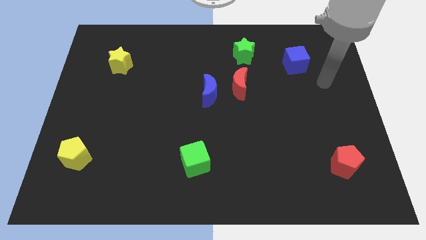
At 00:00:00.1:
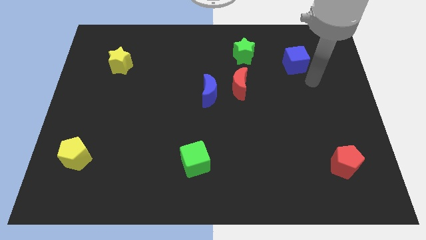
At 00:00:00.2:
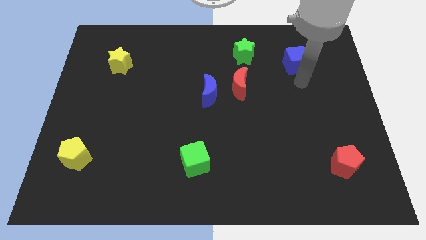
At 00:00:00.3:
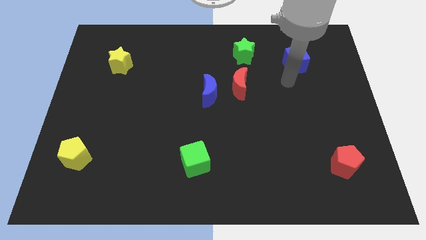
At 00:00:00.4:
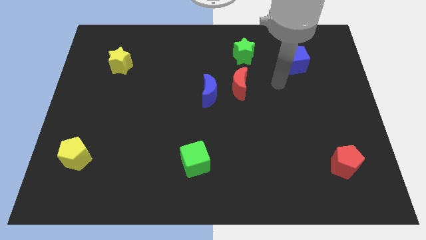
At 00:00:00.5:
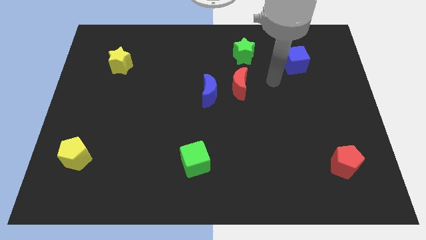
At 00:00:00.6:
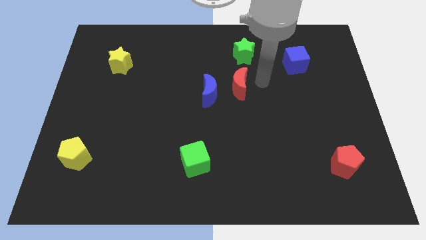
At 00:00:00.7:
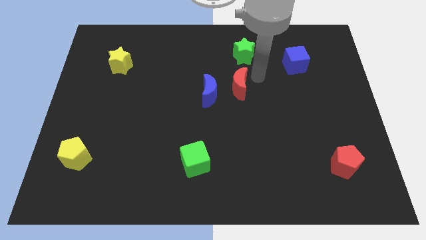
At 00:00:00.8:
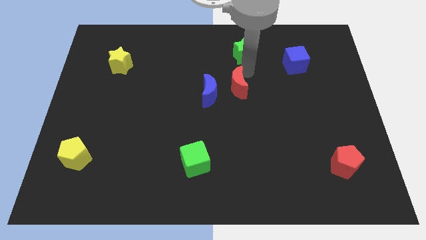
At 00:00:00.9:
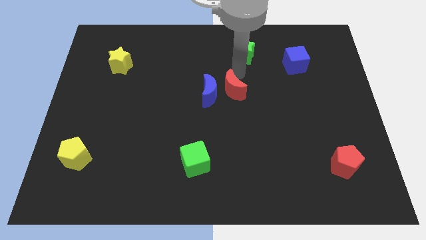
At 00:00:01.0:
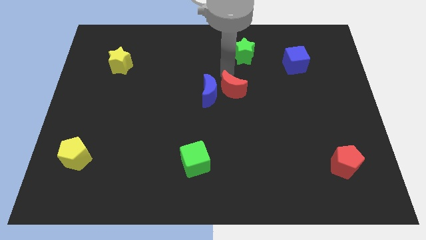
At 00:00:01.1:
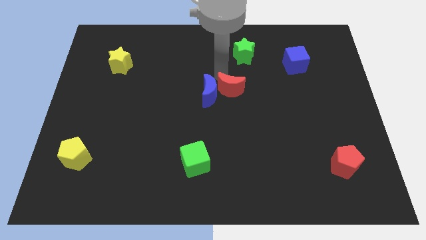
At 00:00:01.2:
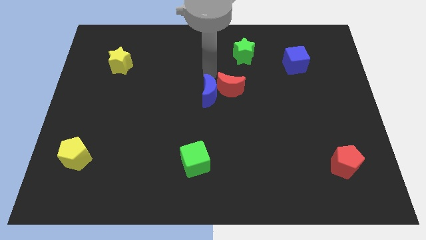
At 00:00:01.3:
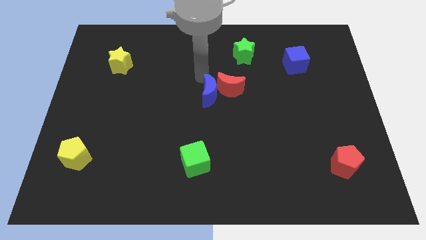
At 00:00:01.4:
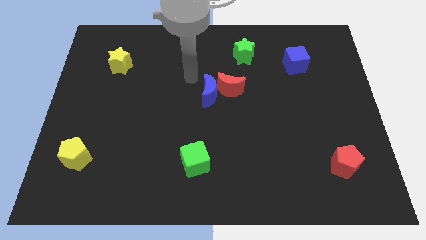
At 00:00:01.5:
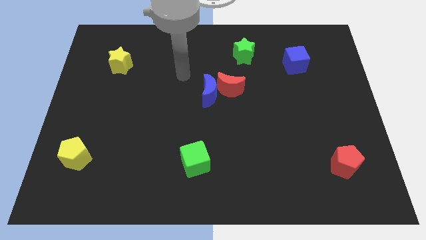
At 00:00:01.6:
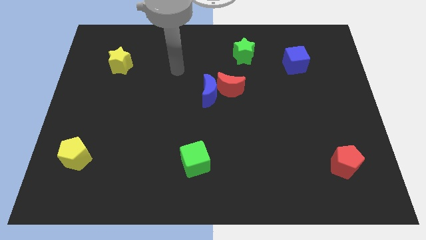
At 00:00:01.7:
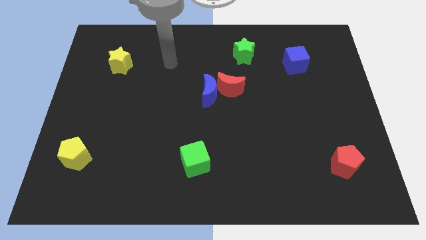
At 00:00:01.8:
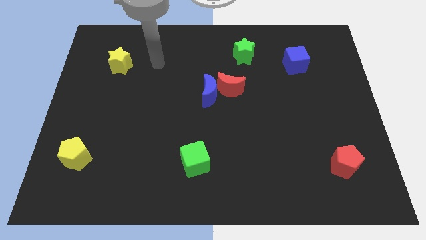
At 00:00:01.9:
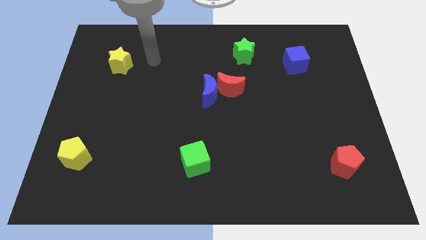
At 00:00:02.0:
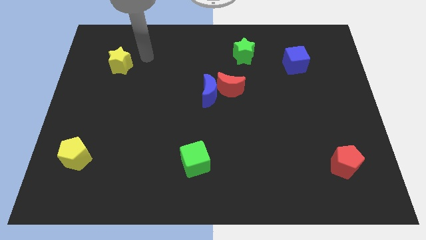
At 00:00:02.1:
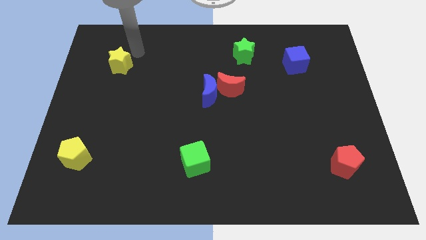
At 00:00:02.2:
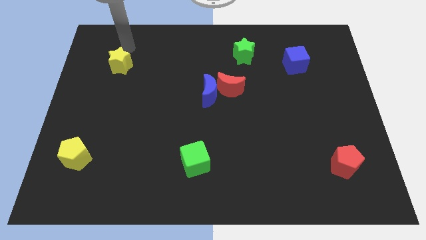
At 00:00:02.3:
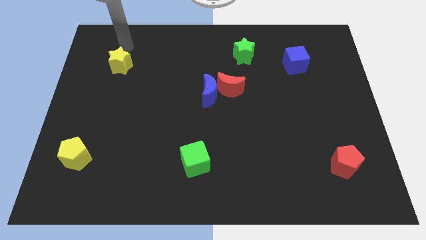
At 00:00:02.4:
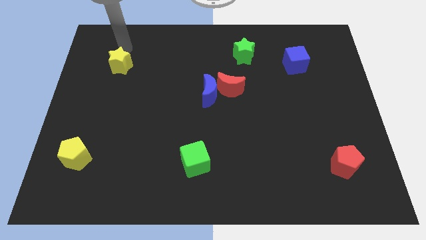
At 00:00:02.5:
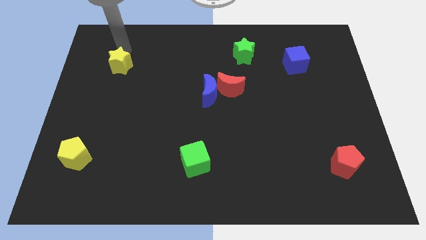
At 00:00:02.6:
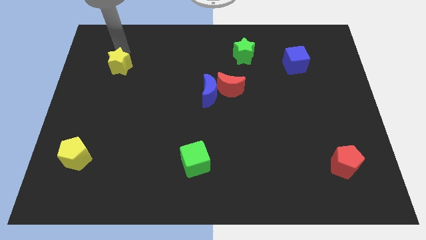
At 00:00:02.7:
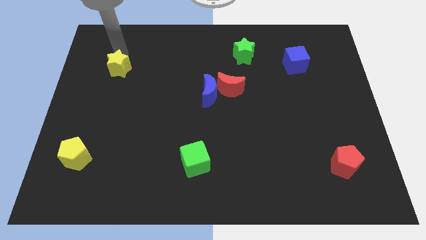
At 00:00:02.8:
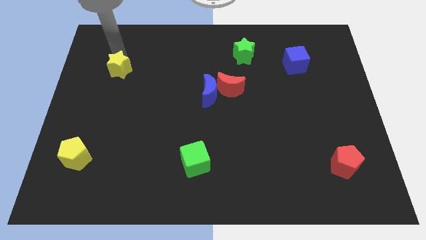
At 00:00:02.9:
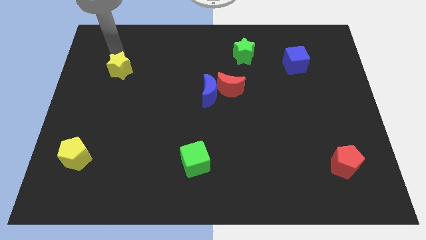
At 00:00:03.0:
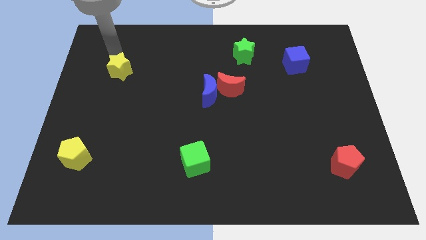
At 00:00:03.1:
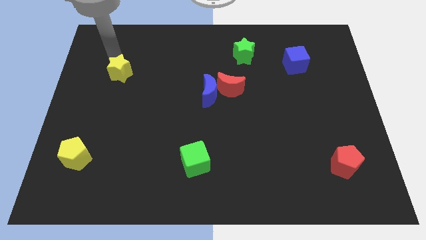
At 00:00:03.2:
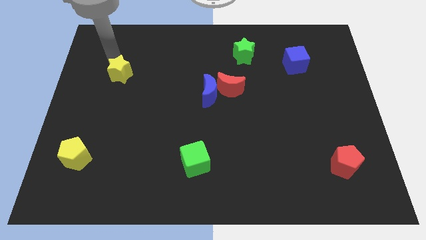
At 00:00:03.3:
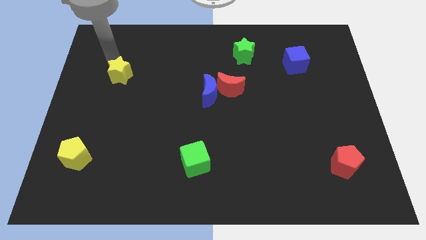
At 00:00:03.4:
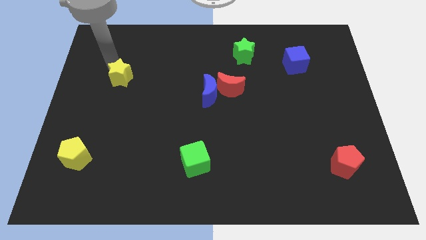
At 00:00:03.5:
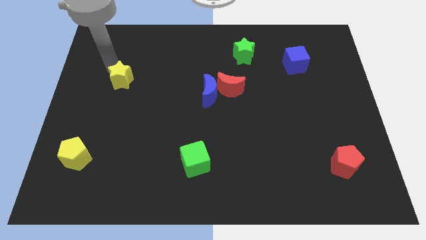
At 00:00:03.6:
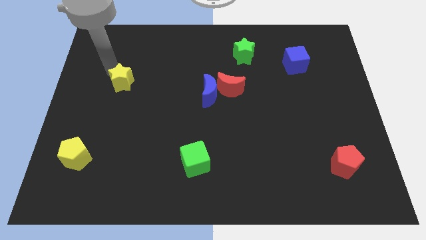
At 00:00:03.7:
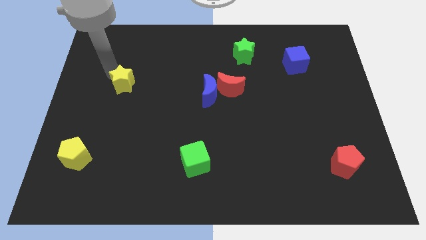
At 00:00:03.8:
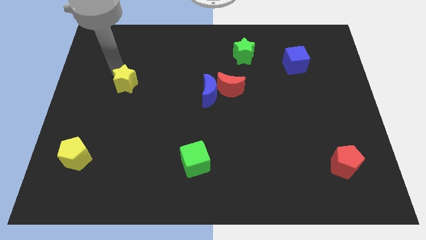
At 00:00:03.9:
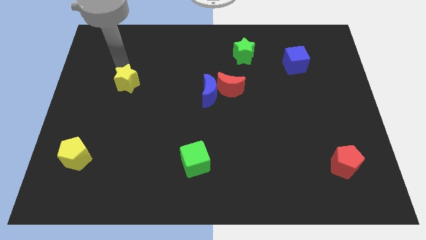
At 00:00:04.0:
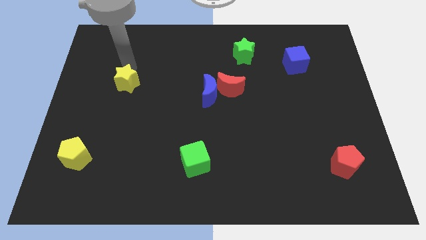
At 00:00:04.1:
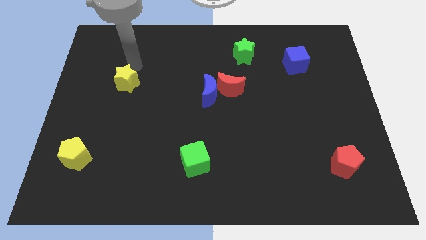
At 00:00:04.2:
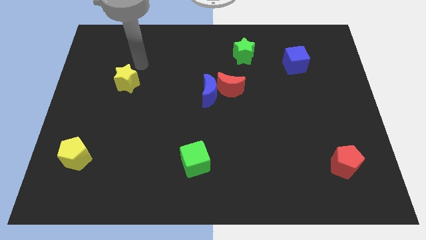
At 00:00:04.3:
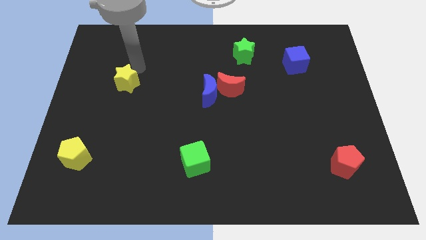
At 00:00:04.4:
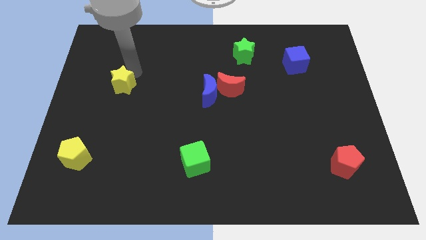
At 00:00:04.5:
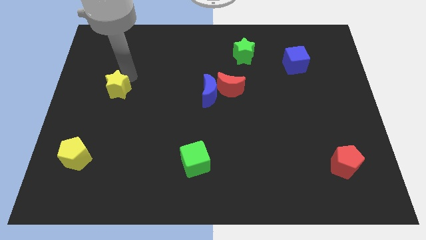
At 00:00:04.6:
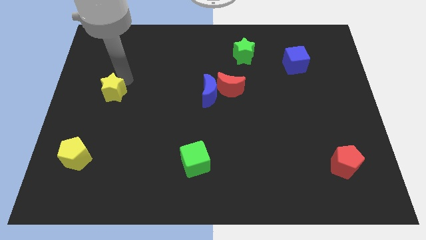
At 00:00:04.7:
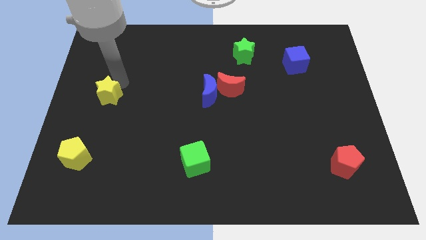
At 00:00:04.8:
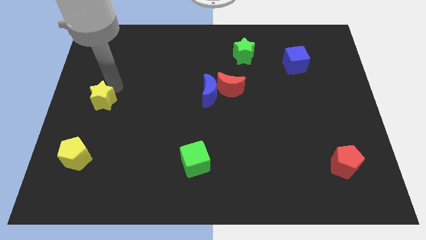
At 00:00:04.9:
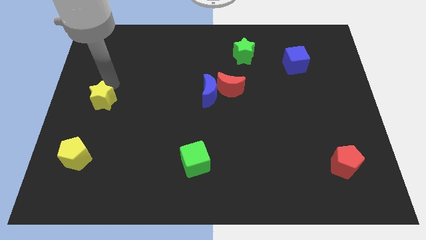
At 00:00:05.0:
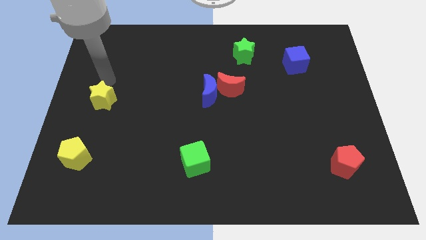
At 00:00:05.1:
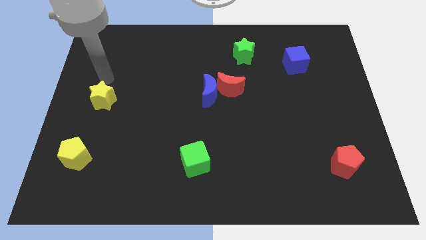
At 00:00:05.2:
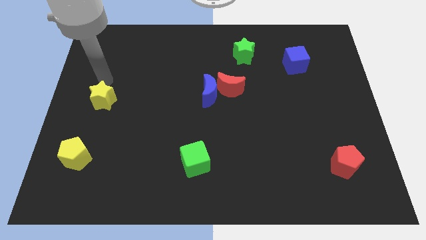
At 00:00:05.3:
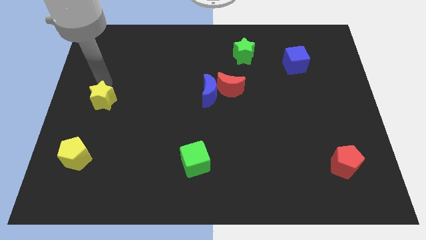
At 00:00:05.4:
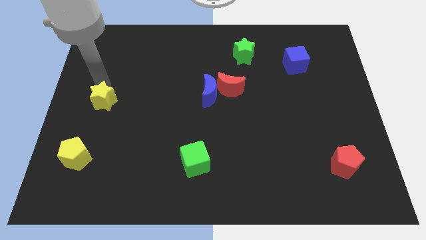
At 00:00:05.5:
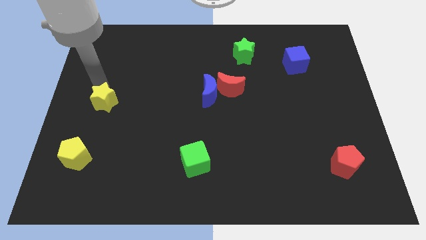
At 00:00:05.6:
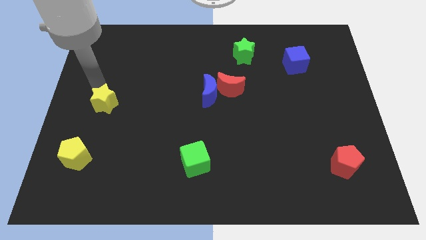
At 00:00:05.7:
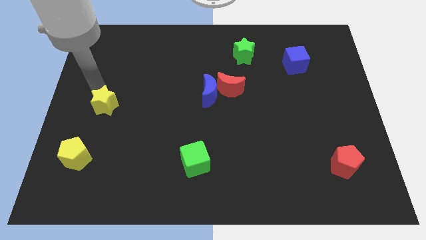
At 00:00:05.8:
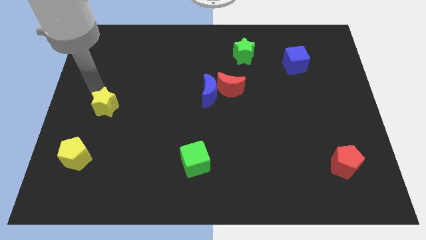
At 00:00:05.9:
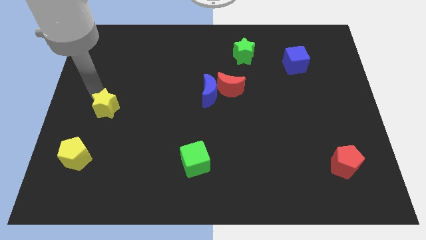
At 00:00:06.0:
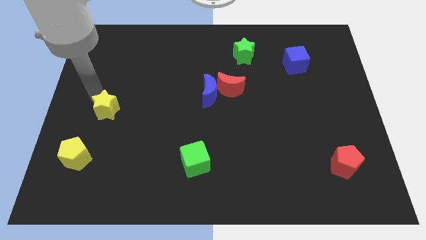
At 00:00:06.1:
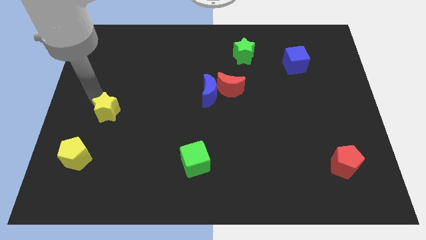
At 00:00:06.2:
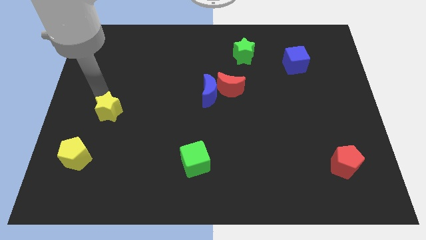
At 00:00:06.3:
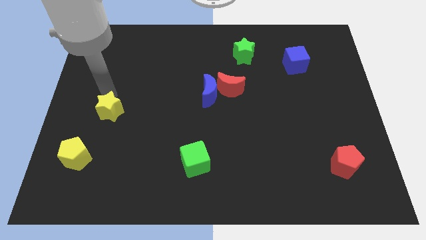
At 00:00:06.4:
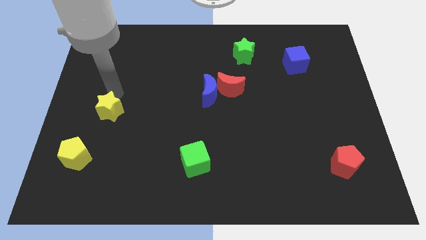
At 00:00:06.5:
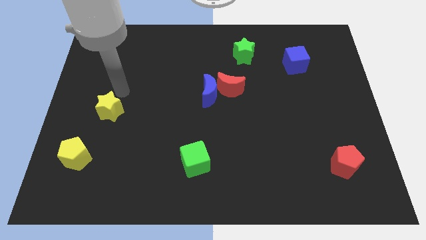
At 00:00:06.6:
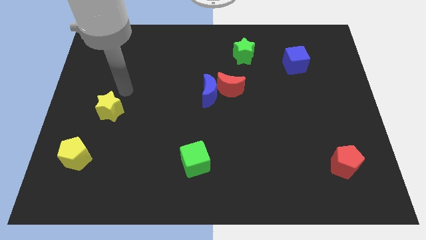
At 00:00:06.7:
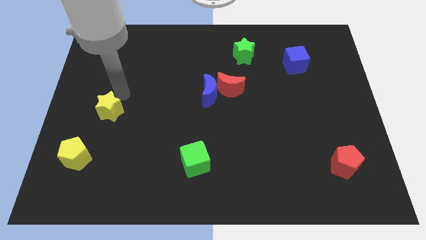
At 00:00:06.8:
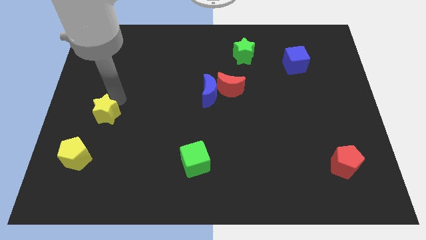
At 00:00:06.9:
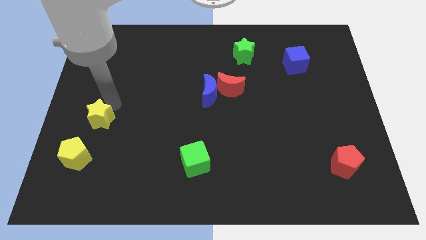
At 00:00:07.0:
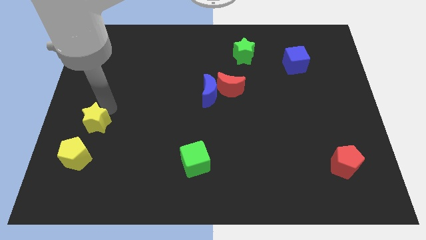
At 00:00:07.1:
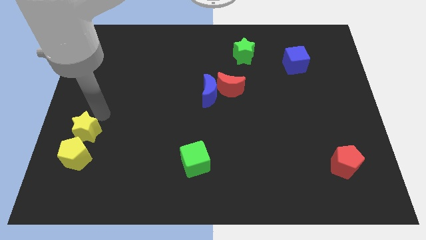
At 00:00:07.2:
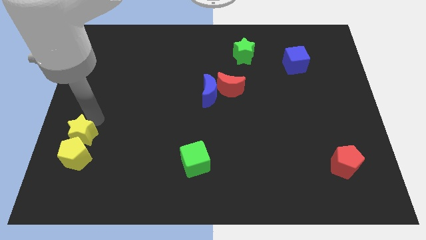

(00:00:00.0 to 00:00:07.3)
move the yellow star to the yellow pentagon
